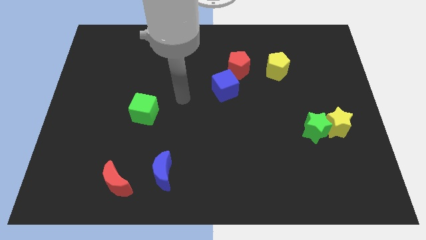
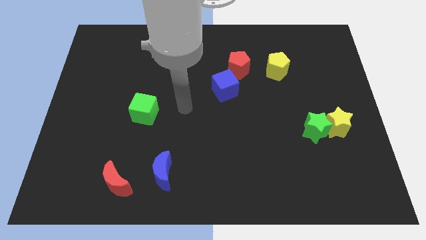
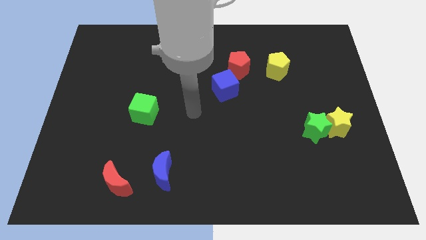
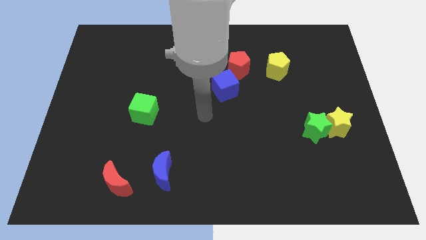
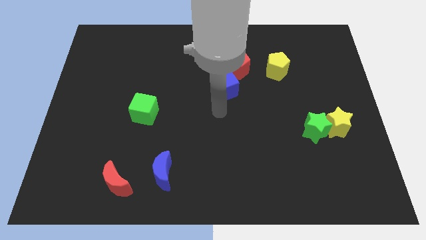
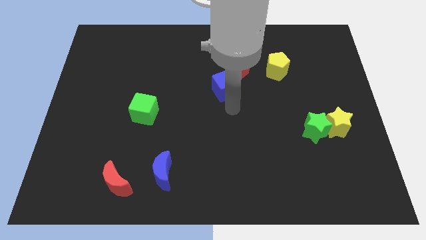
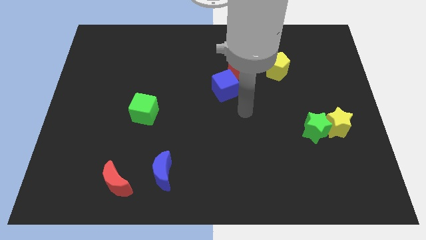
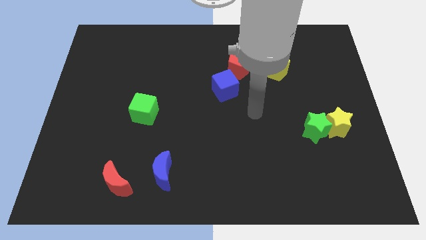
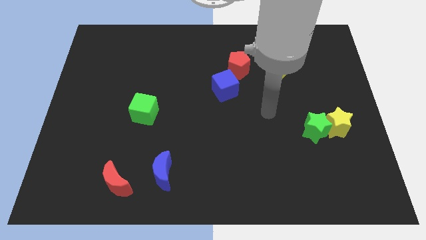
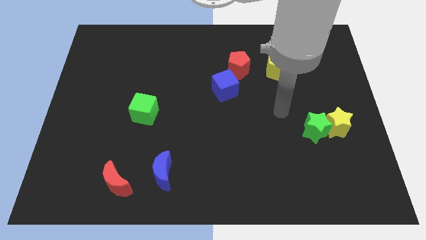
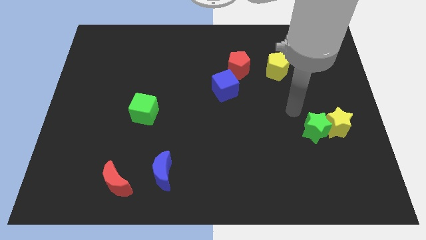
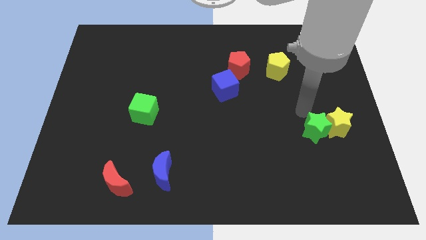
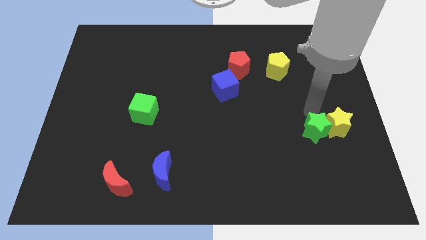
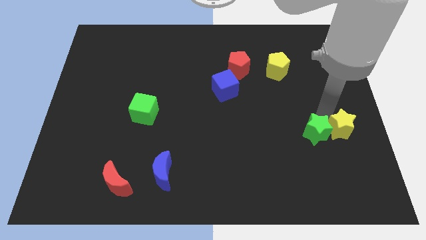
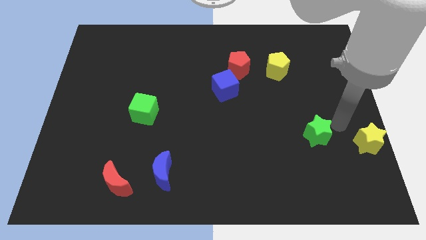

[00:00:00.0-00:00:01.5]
move the green star away from the yellow star

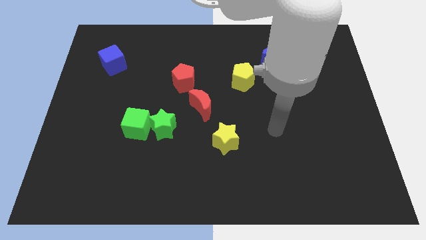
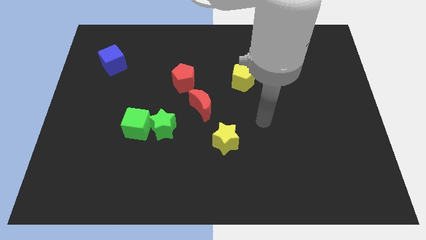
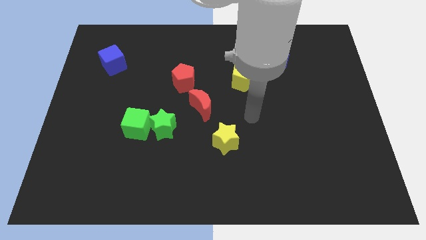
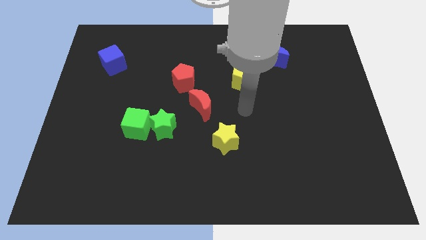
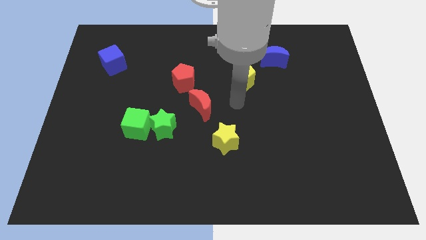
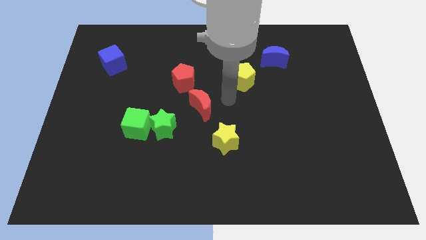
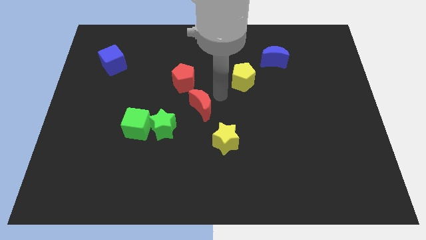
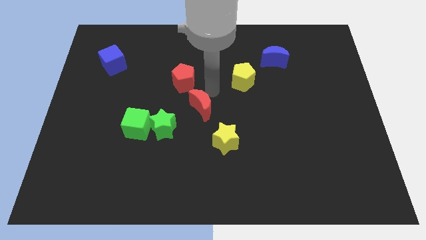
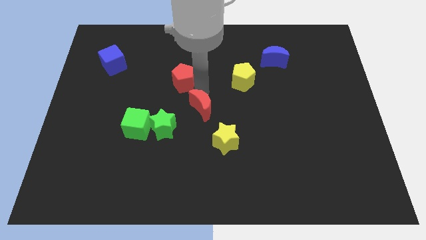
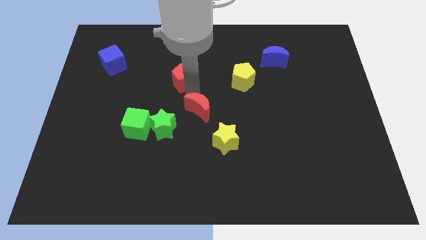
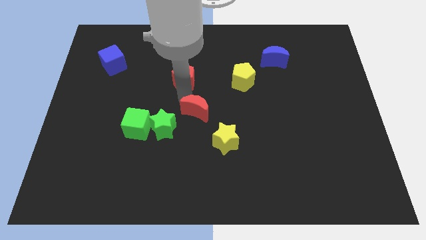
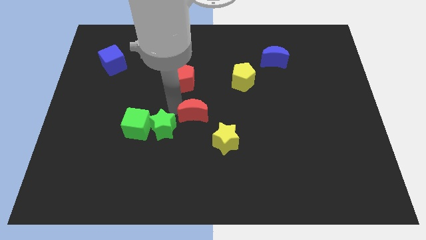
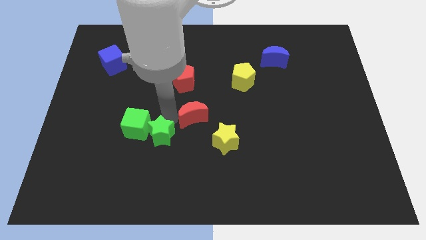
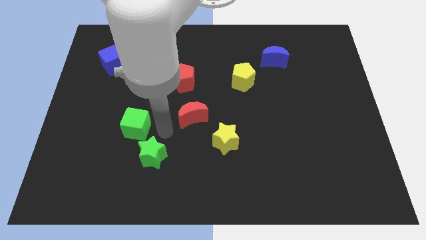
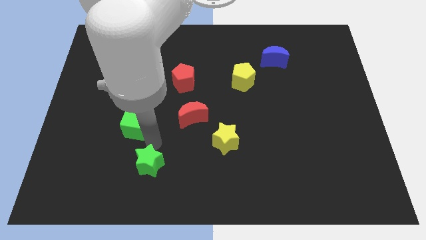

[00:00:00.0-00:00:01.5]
pull the green cube apart from the green star

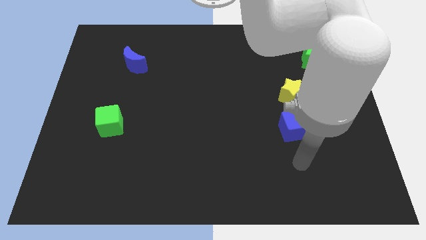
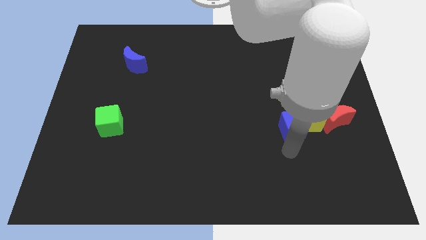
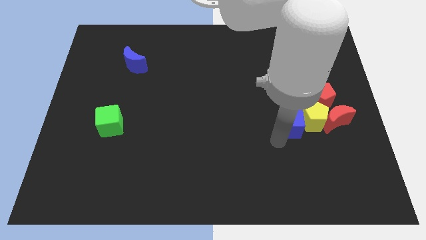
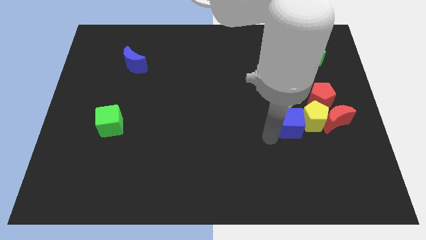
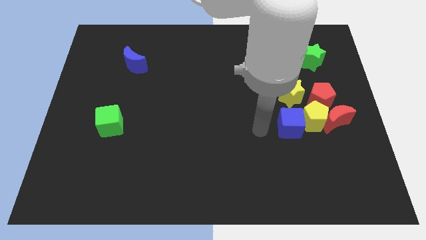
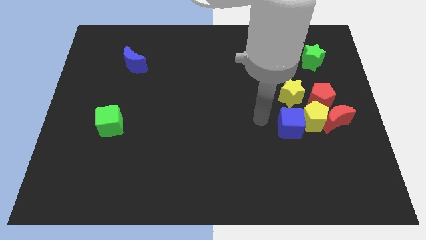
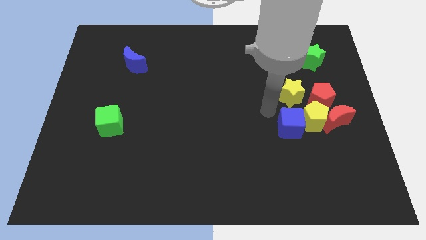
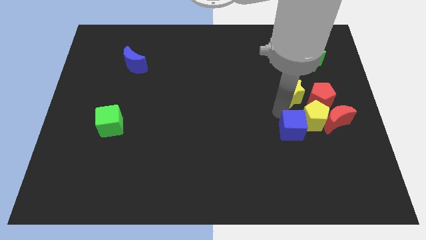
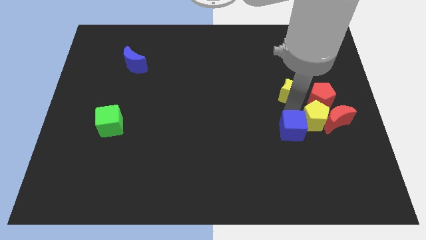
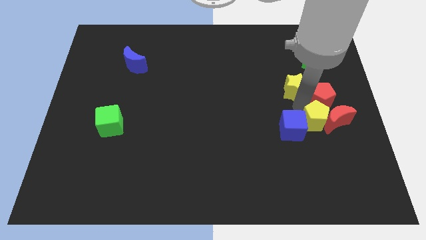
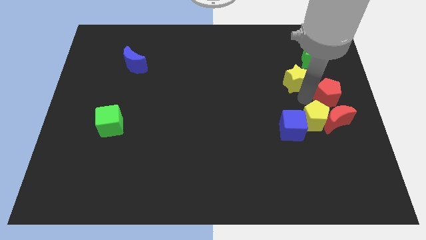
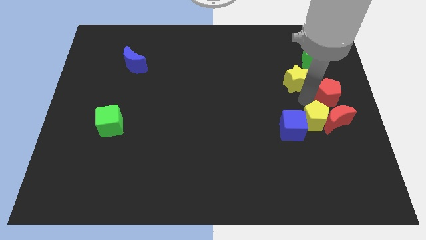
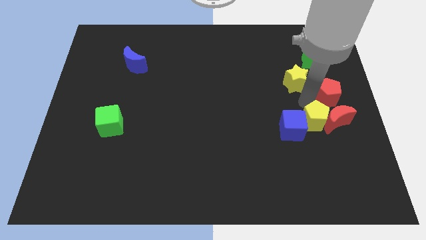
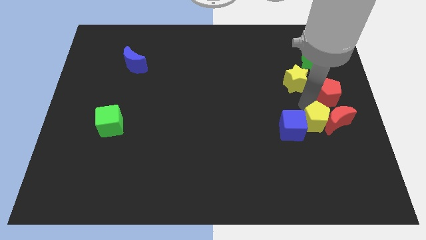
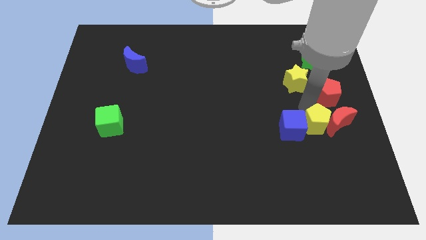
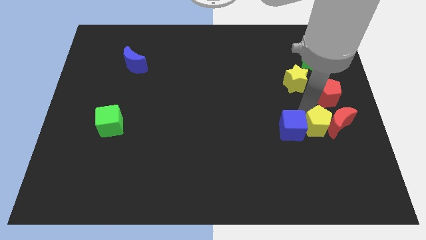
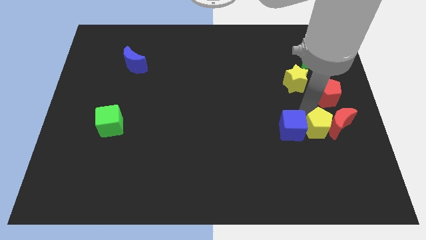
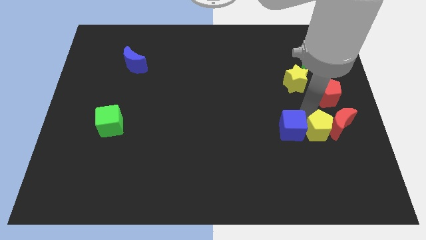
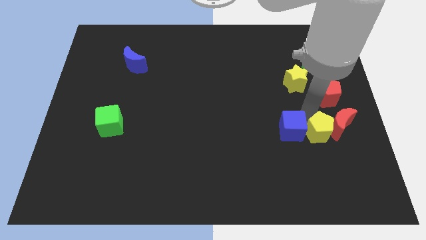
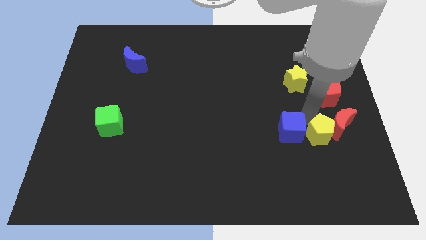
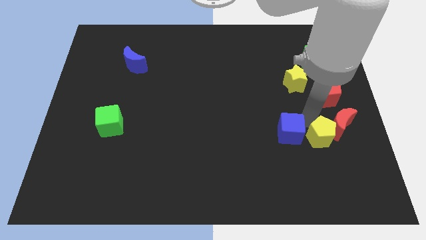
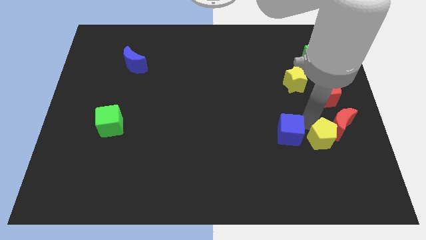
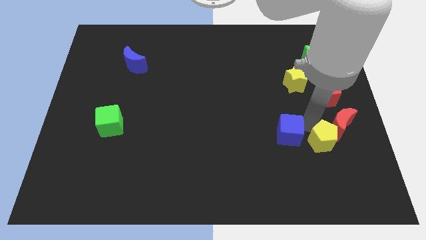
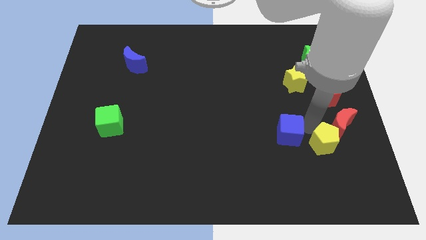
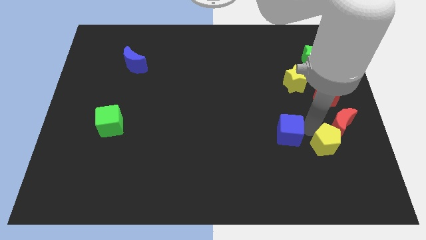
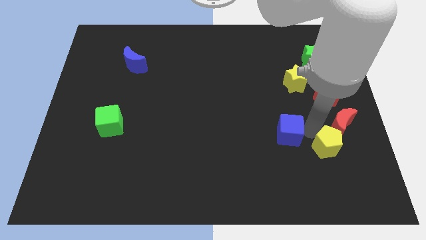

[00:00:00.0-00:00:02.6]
pull the yellow pentagon apart from the clump

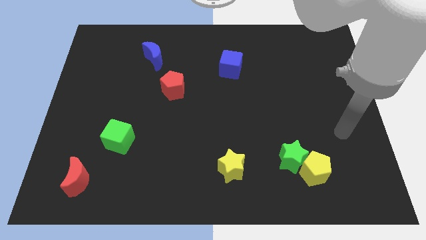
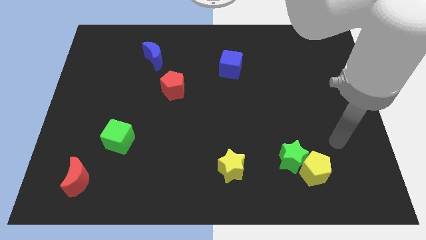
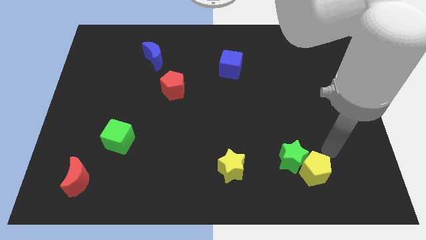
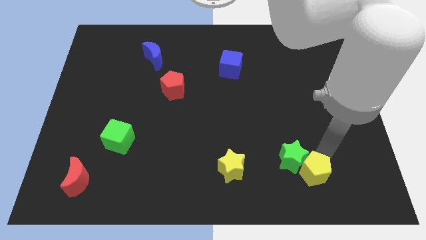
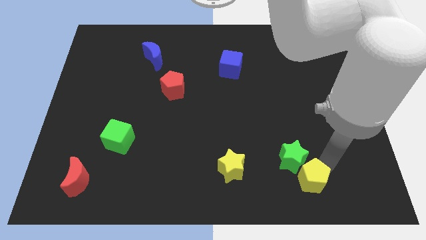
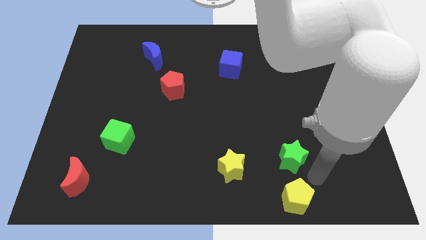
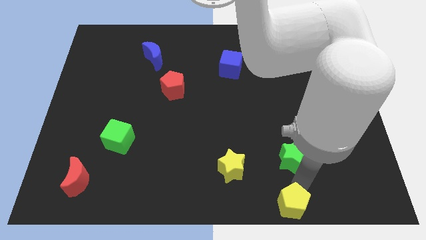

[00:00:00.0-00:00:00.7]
separate the green star from the yellow pentagon

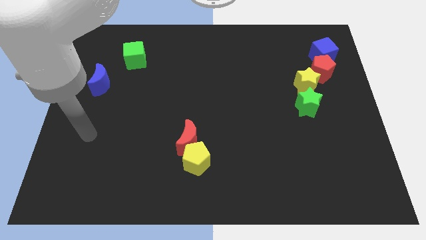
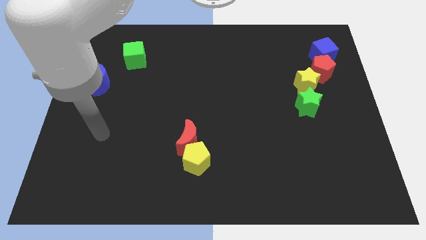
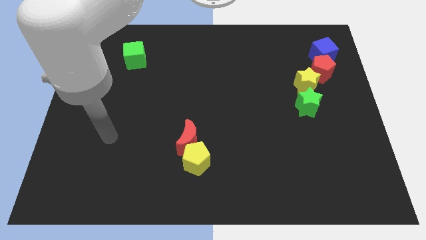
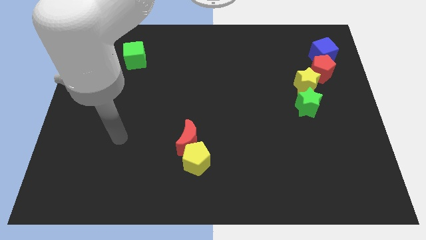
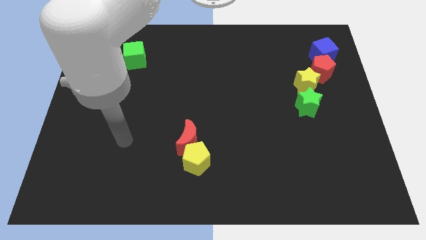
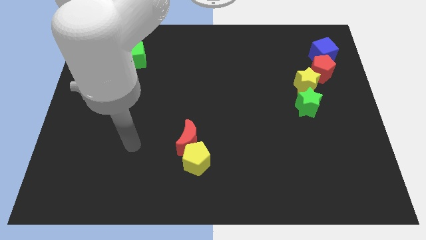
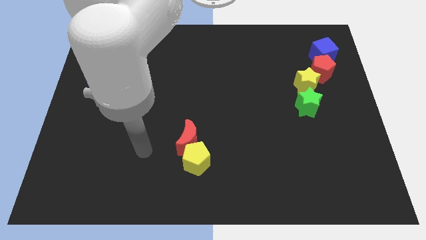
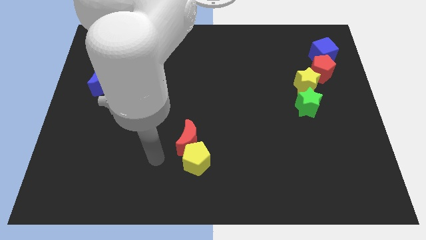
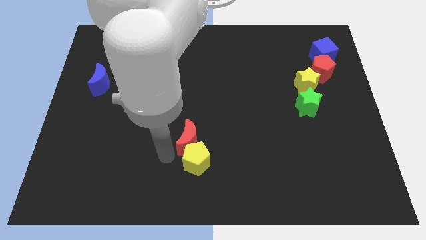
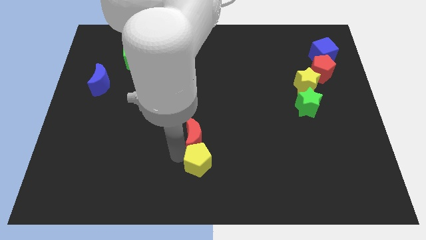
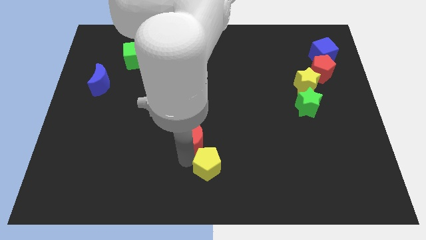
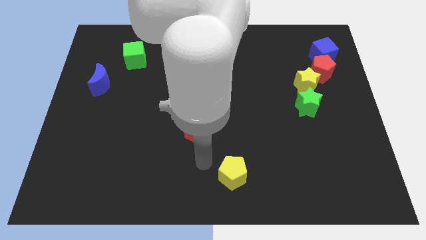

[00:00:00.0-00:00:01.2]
move the red moon away from the yellow pentagon

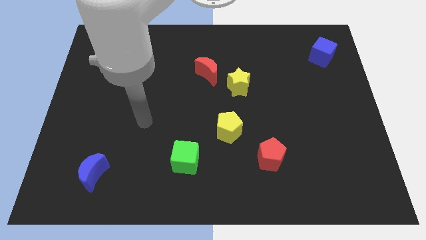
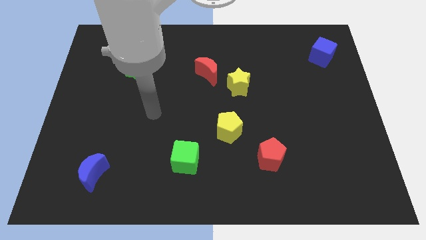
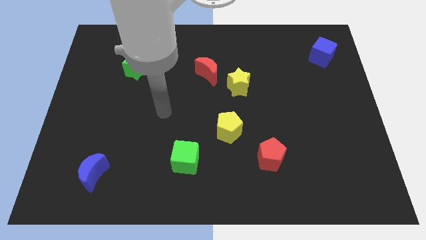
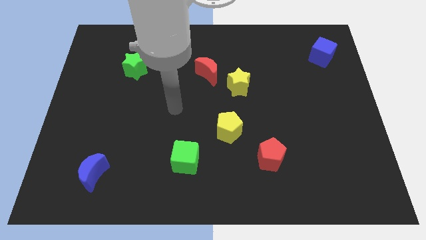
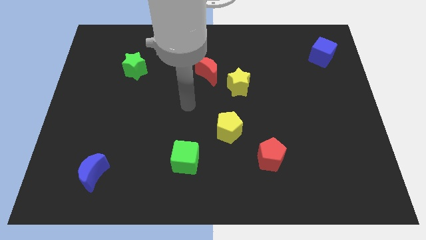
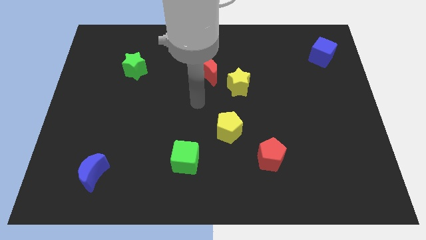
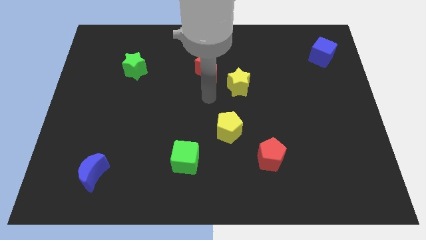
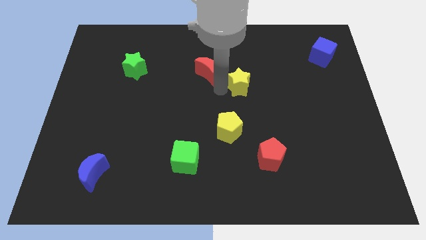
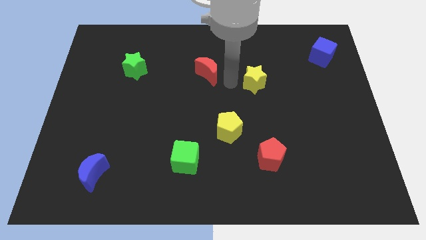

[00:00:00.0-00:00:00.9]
pull the red moon apart from the yellow star

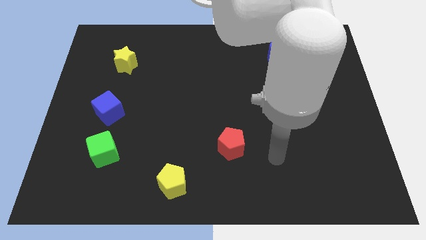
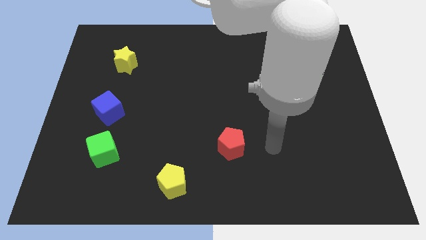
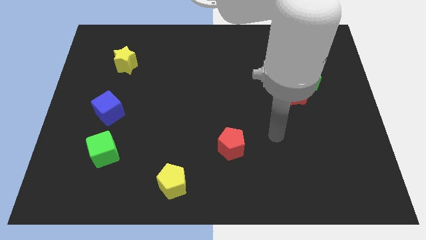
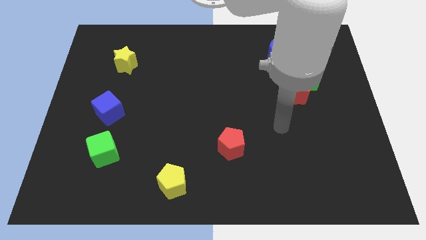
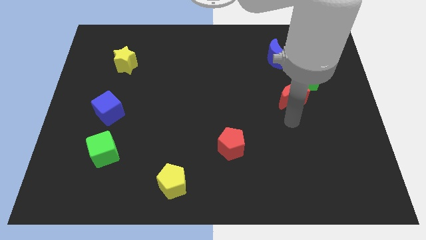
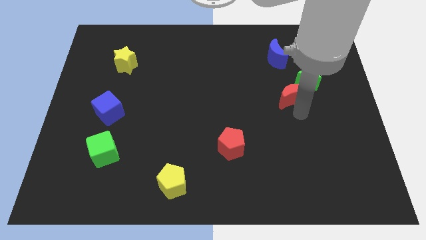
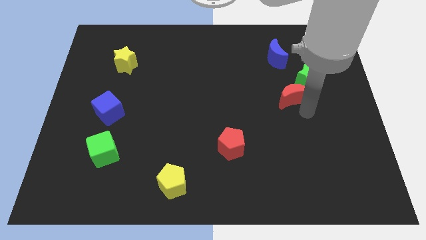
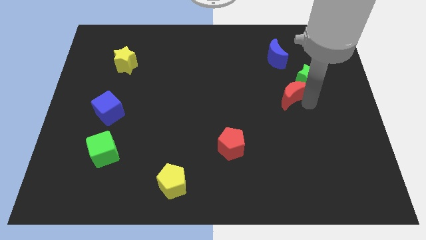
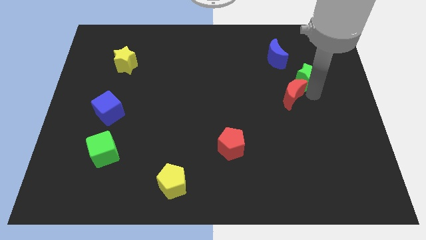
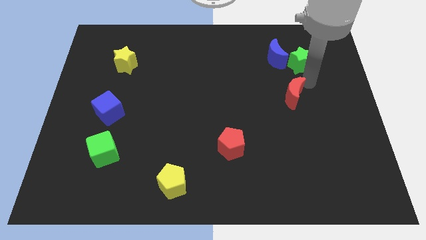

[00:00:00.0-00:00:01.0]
pull the red moon apart from the green star
